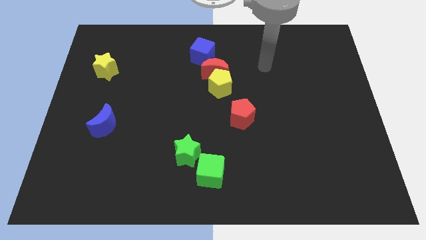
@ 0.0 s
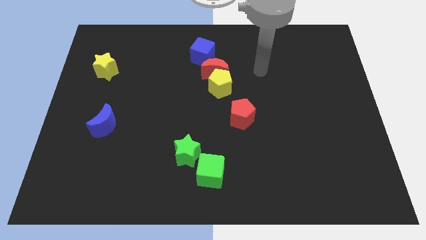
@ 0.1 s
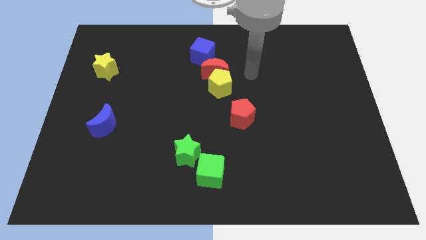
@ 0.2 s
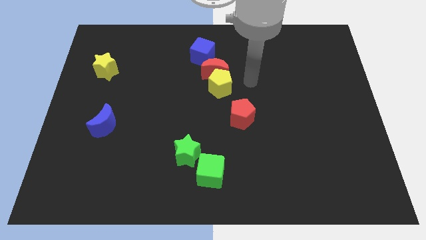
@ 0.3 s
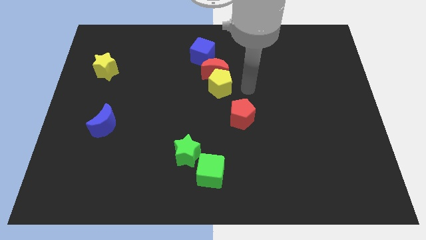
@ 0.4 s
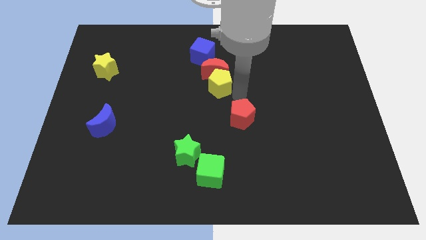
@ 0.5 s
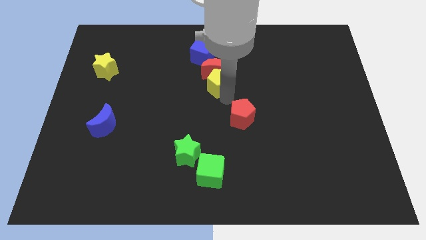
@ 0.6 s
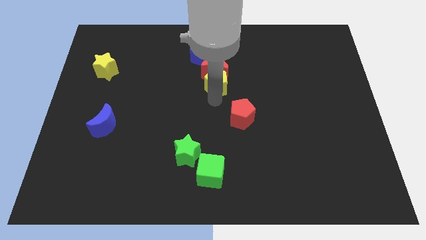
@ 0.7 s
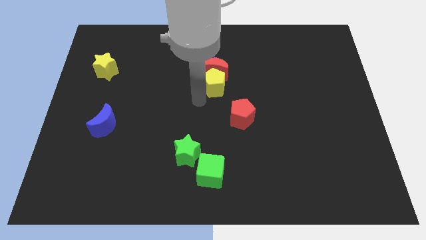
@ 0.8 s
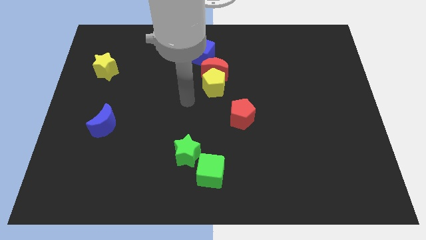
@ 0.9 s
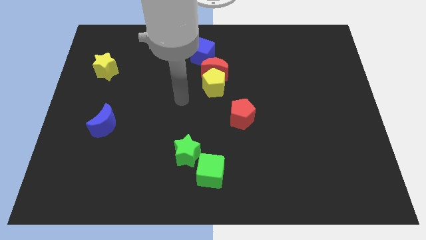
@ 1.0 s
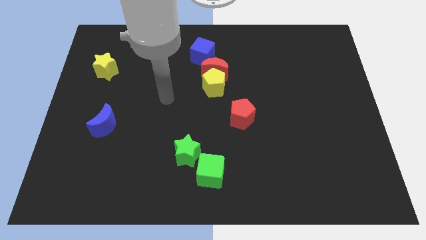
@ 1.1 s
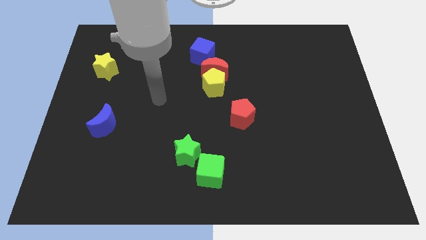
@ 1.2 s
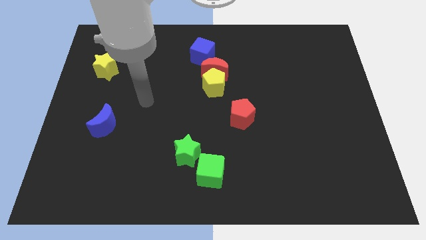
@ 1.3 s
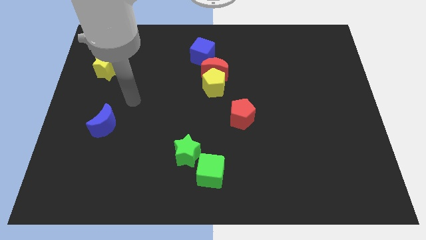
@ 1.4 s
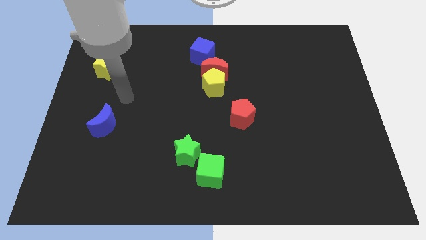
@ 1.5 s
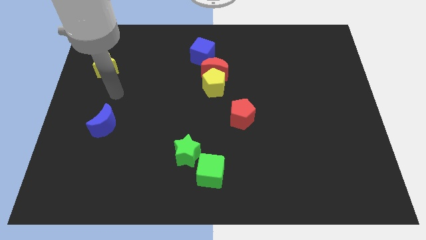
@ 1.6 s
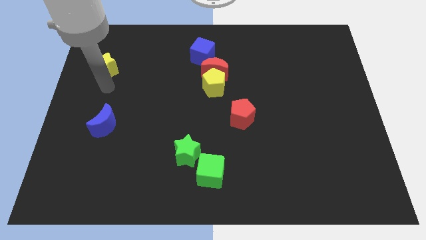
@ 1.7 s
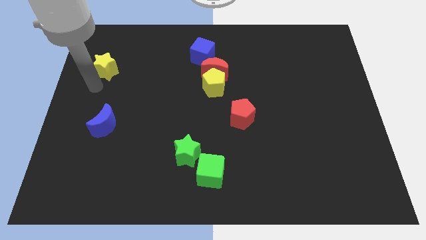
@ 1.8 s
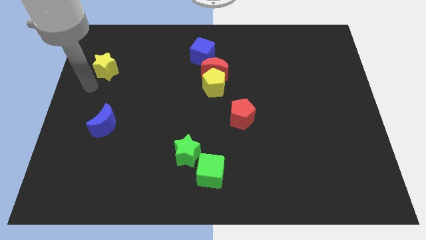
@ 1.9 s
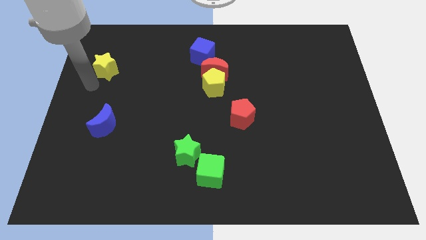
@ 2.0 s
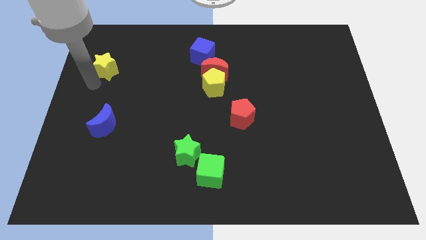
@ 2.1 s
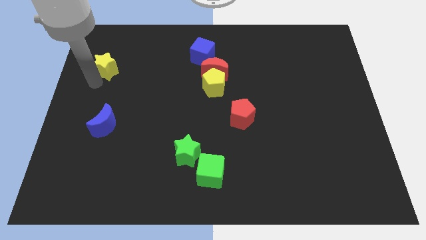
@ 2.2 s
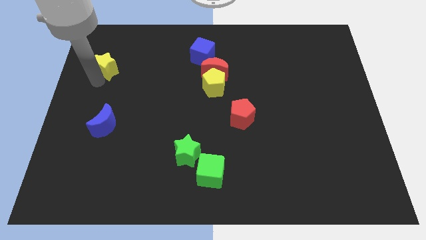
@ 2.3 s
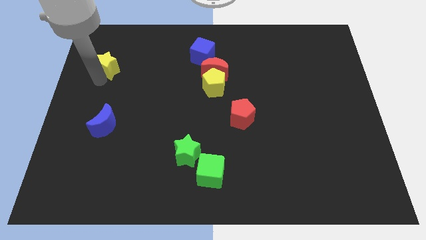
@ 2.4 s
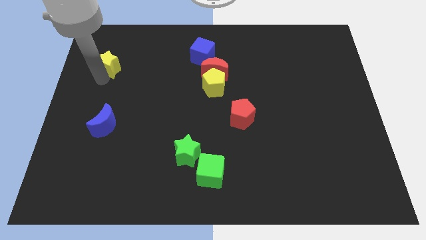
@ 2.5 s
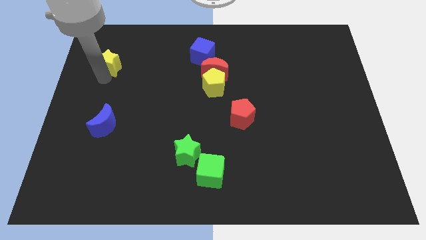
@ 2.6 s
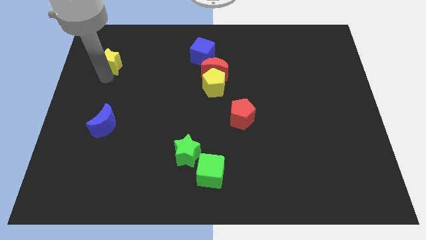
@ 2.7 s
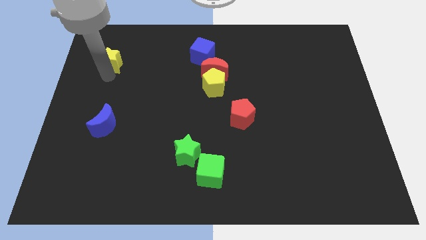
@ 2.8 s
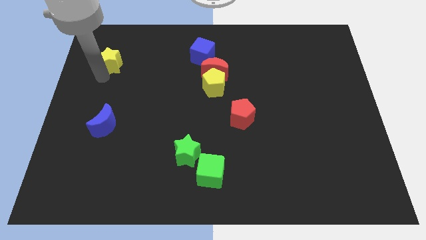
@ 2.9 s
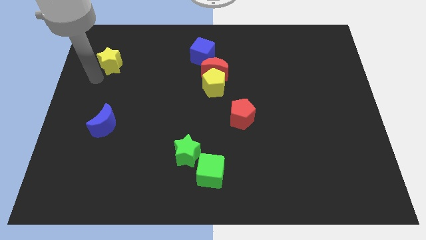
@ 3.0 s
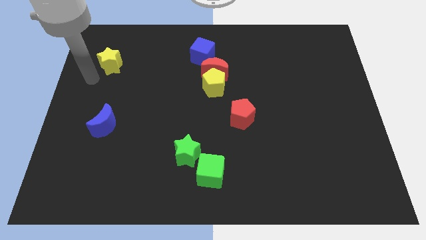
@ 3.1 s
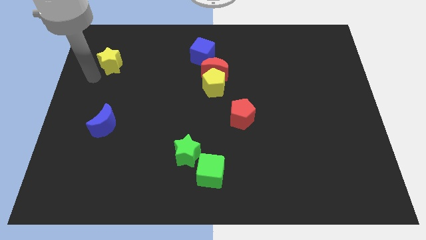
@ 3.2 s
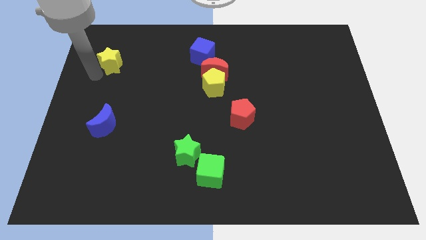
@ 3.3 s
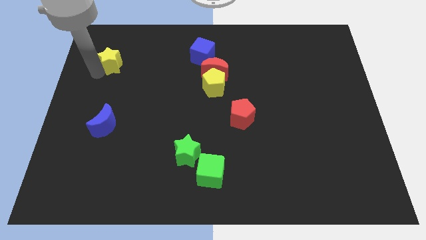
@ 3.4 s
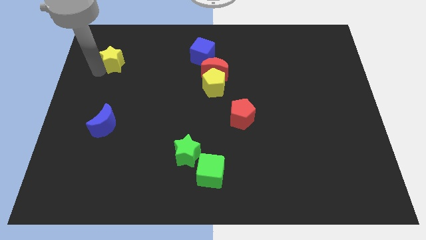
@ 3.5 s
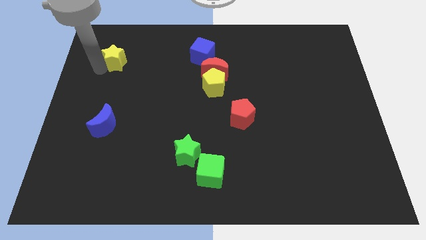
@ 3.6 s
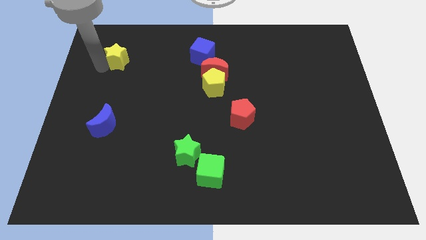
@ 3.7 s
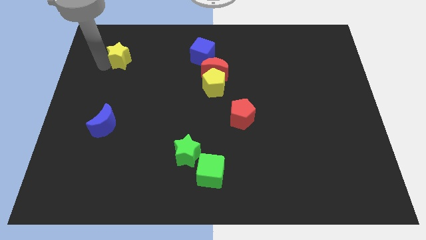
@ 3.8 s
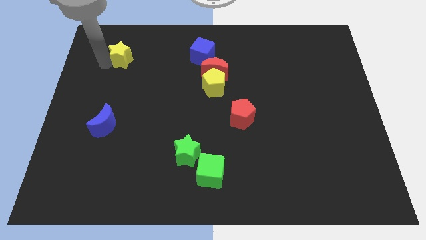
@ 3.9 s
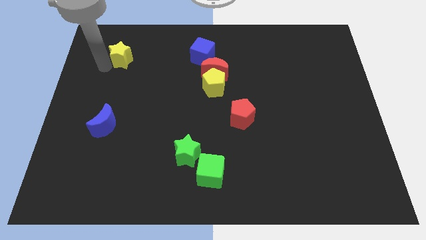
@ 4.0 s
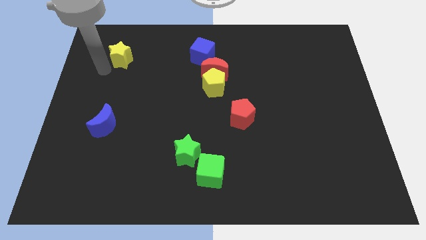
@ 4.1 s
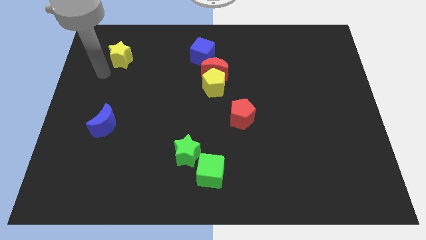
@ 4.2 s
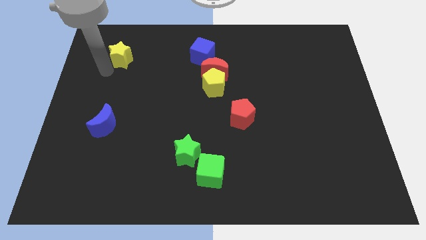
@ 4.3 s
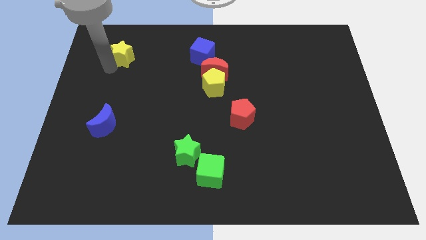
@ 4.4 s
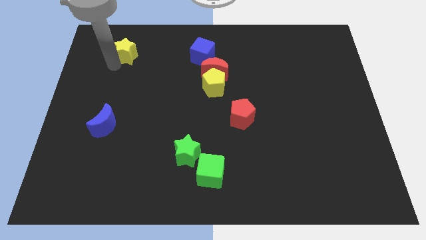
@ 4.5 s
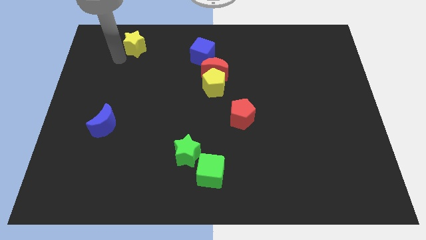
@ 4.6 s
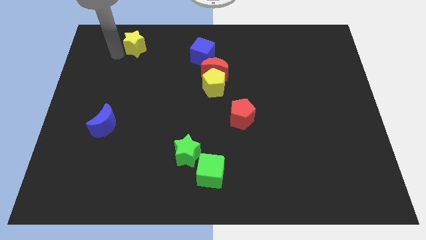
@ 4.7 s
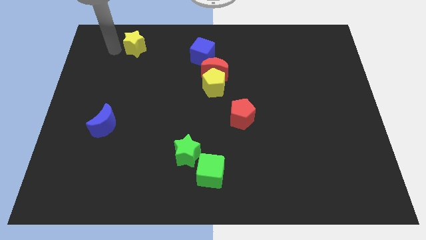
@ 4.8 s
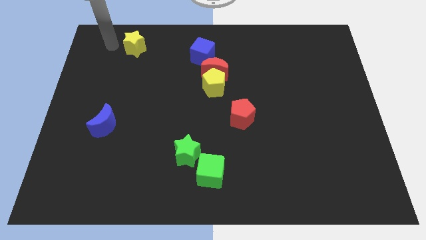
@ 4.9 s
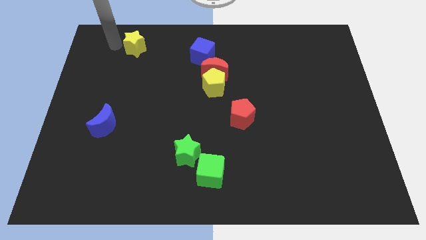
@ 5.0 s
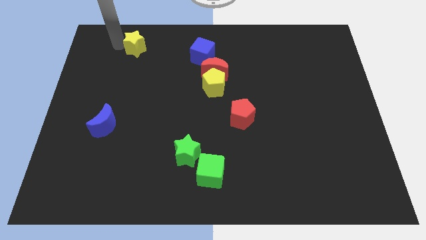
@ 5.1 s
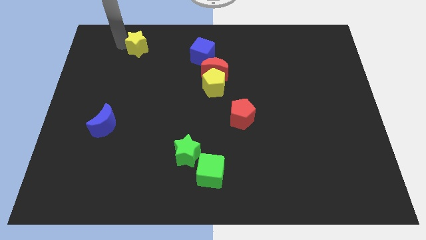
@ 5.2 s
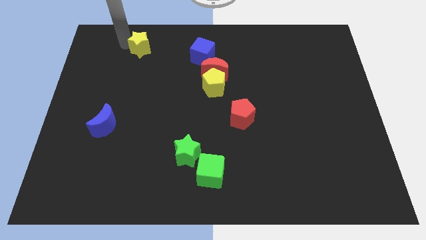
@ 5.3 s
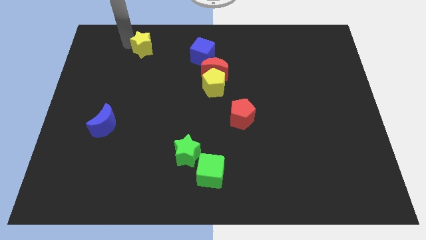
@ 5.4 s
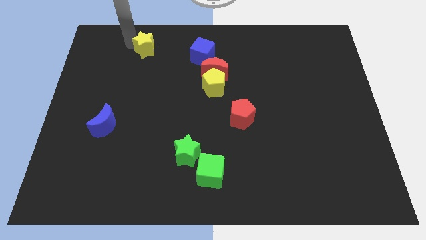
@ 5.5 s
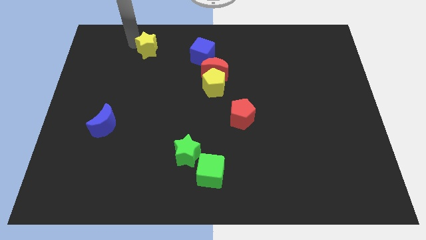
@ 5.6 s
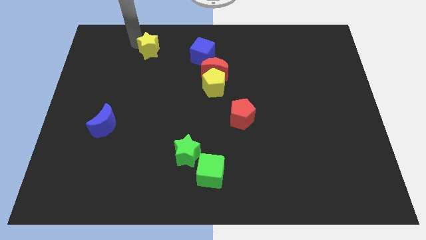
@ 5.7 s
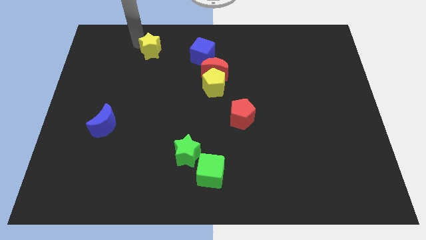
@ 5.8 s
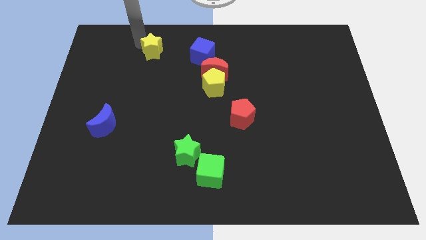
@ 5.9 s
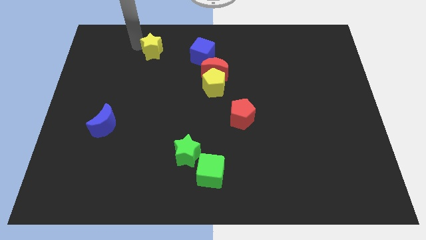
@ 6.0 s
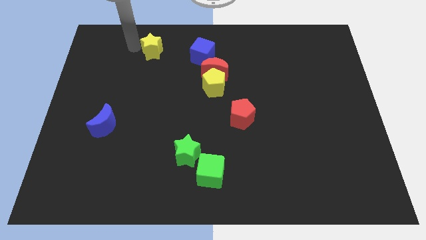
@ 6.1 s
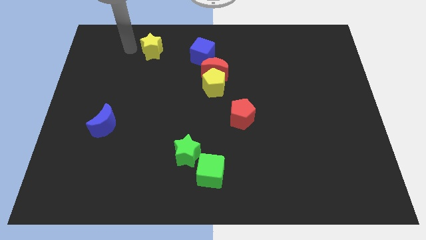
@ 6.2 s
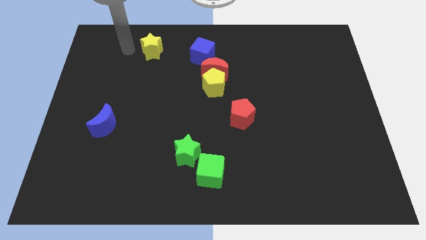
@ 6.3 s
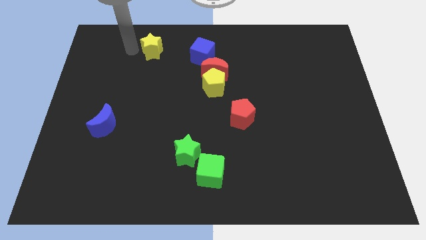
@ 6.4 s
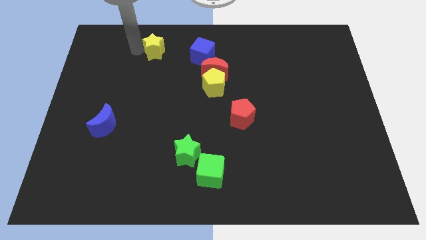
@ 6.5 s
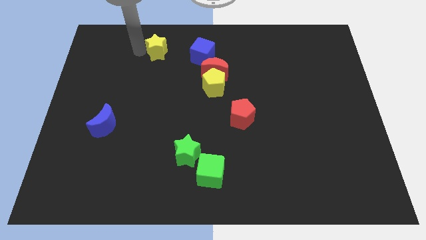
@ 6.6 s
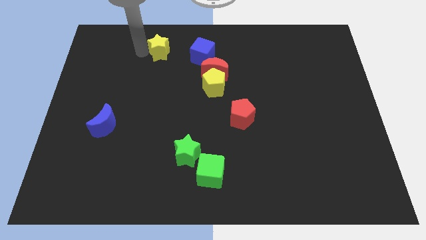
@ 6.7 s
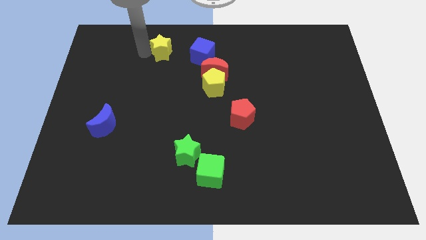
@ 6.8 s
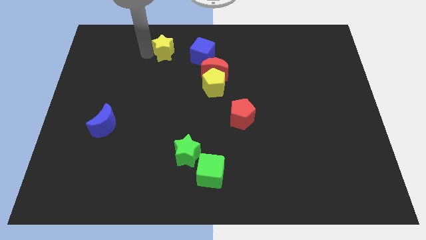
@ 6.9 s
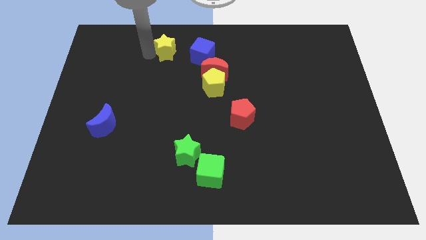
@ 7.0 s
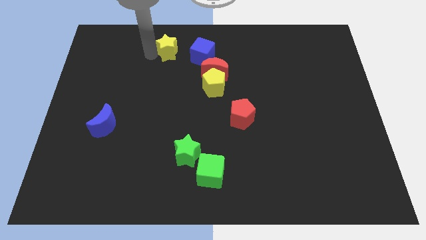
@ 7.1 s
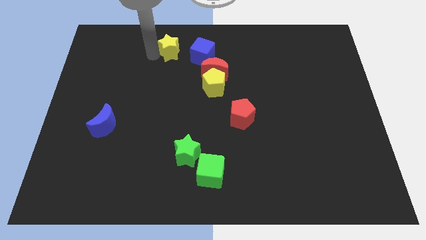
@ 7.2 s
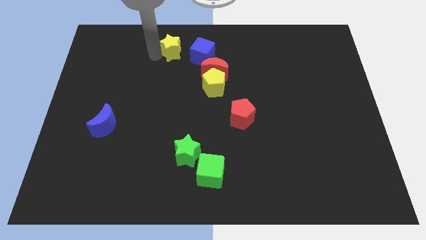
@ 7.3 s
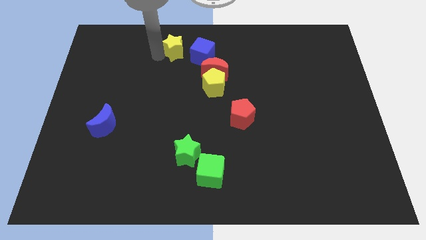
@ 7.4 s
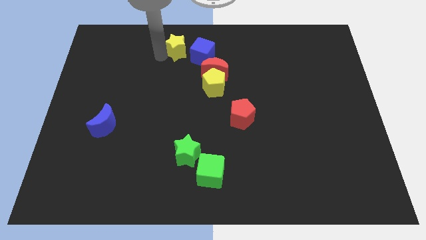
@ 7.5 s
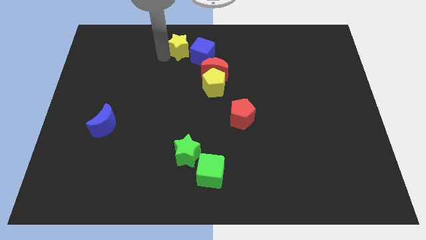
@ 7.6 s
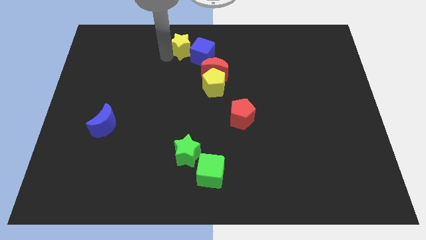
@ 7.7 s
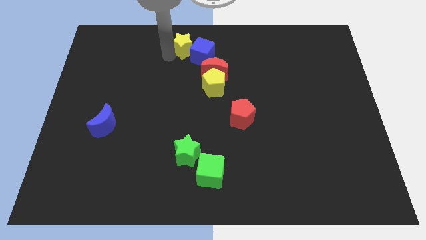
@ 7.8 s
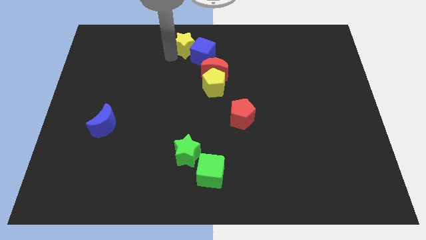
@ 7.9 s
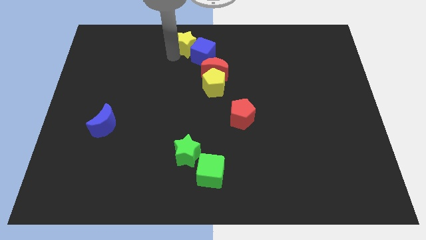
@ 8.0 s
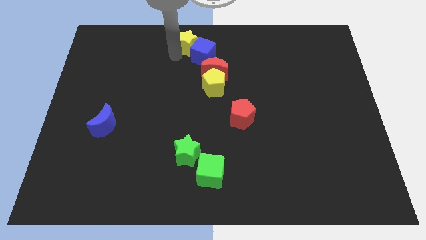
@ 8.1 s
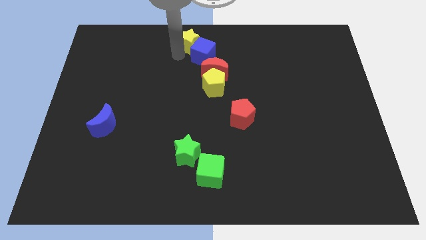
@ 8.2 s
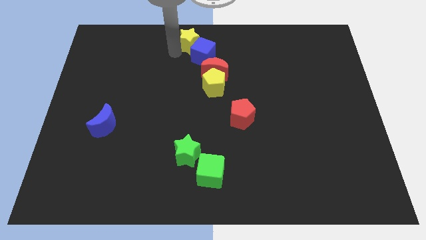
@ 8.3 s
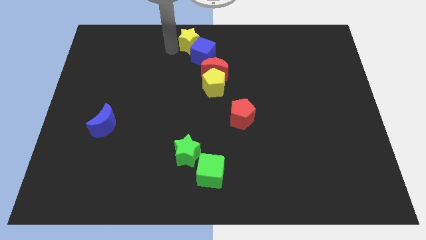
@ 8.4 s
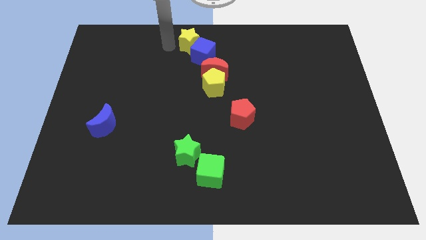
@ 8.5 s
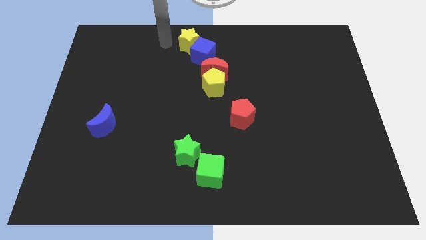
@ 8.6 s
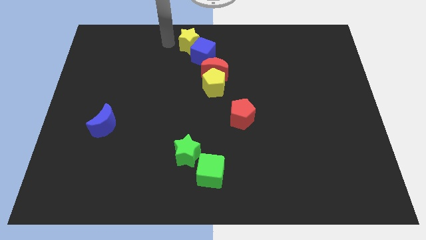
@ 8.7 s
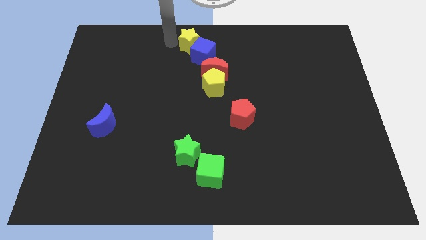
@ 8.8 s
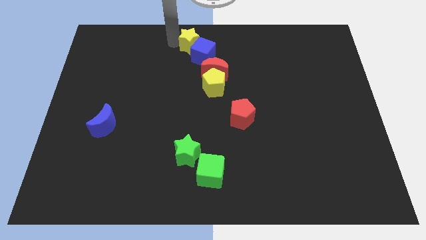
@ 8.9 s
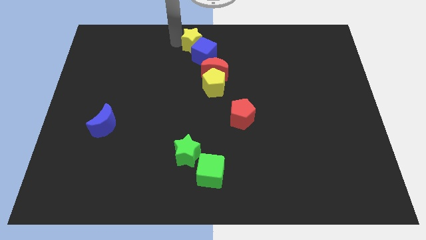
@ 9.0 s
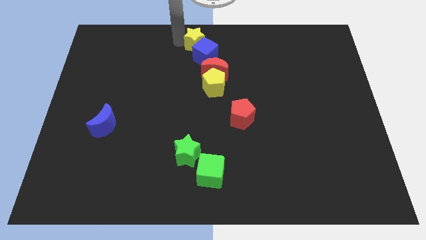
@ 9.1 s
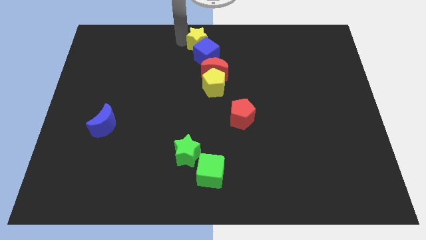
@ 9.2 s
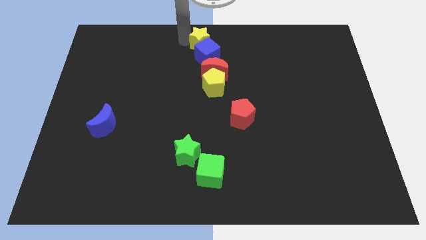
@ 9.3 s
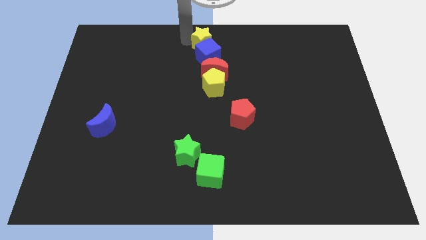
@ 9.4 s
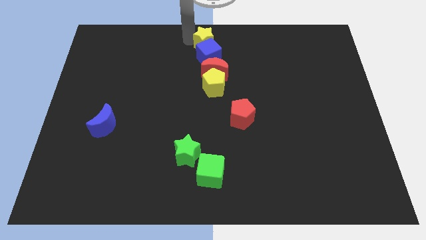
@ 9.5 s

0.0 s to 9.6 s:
move the yellow star to the right
